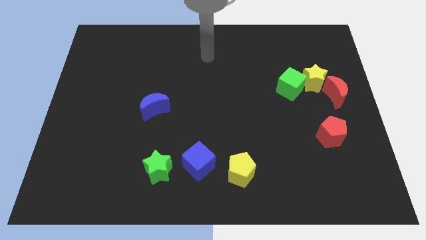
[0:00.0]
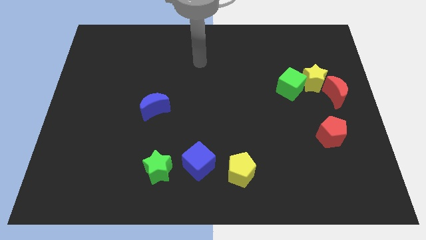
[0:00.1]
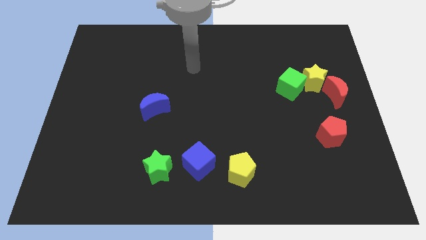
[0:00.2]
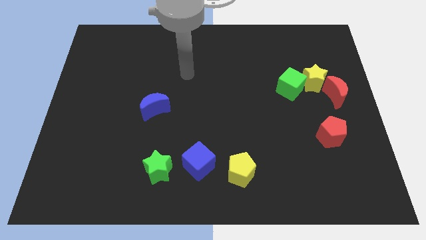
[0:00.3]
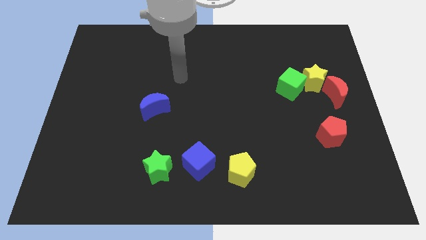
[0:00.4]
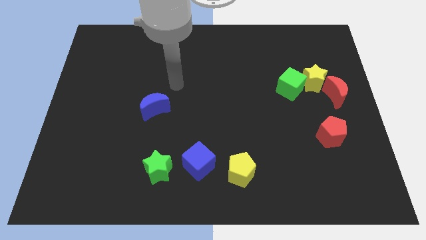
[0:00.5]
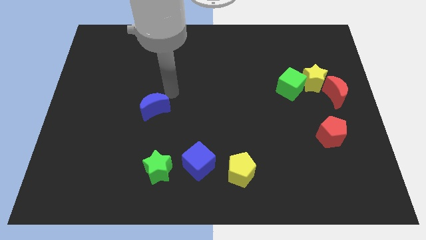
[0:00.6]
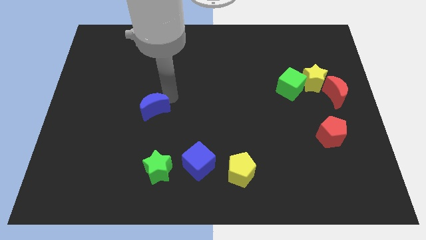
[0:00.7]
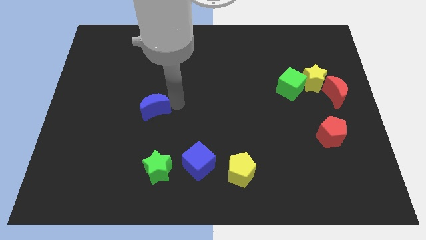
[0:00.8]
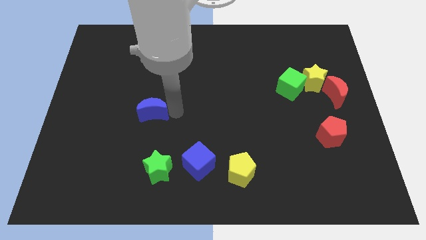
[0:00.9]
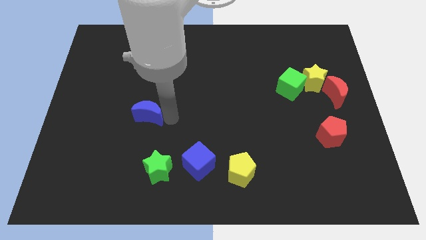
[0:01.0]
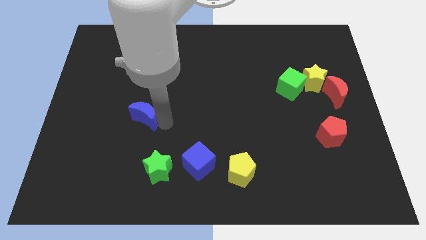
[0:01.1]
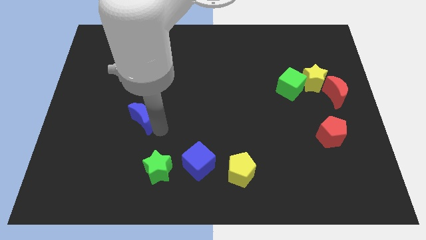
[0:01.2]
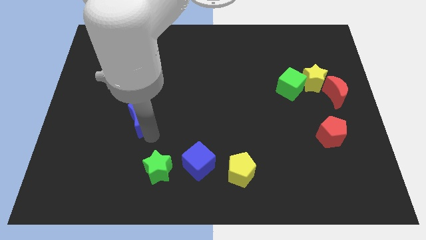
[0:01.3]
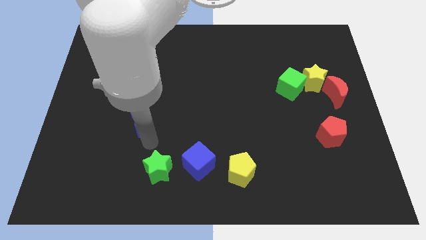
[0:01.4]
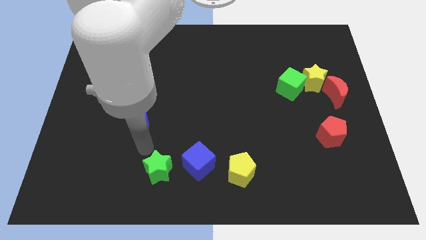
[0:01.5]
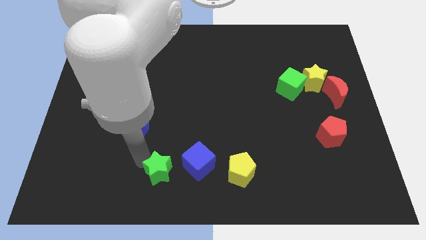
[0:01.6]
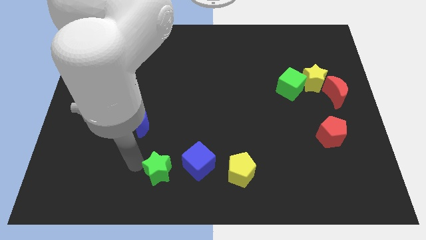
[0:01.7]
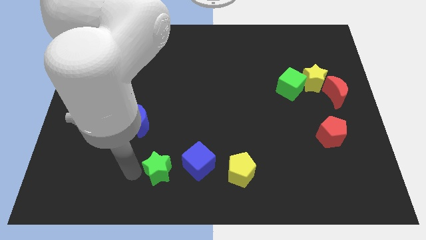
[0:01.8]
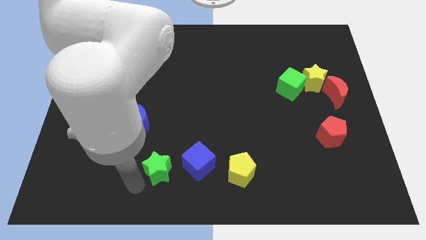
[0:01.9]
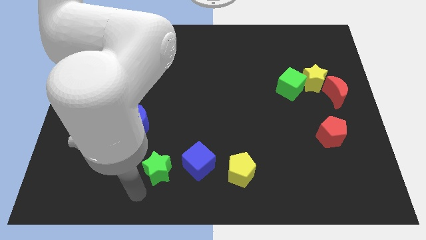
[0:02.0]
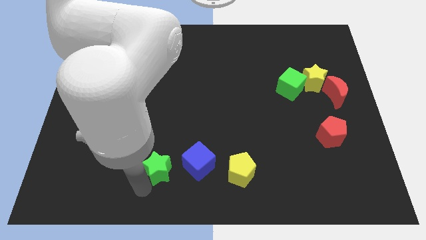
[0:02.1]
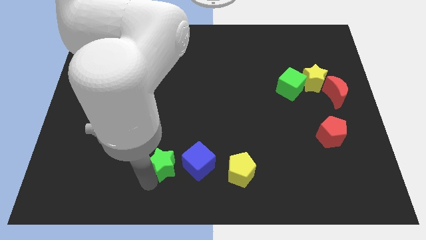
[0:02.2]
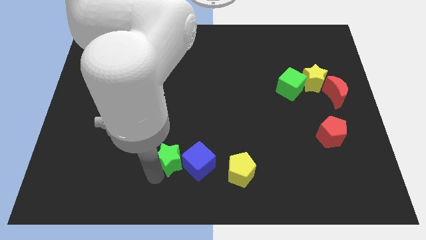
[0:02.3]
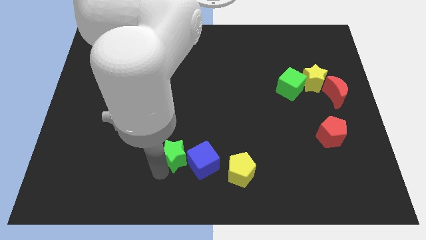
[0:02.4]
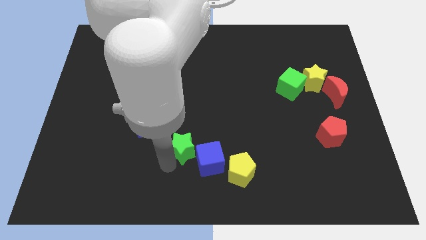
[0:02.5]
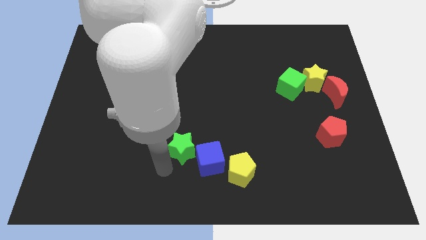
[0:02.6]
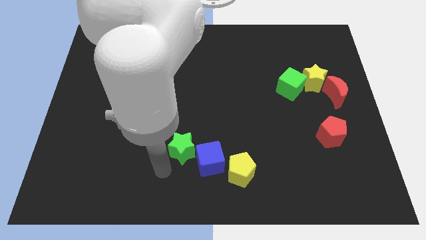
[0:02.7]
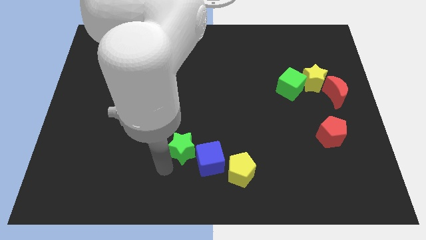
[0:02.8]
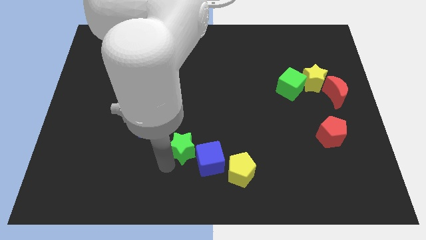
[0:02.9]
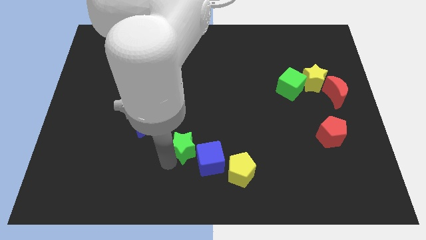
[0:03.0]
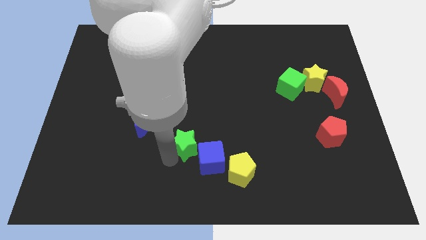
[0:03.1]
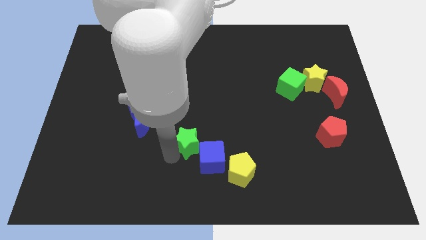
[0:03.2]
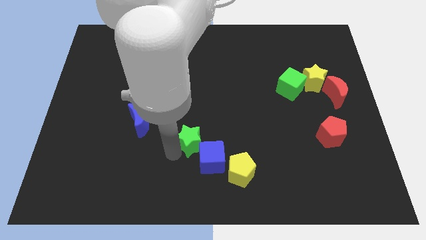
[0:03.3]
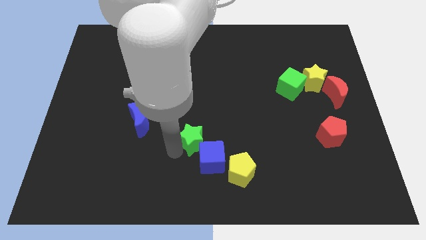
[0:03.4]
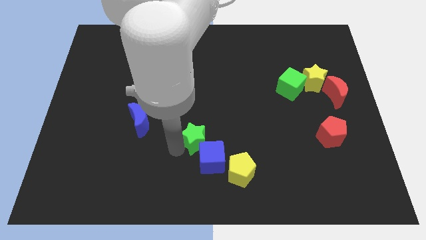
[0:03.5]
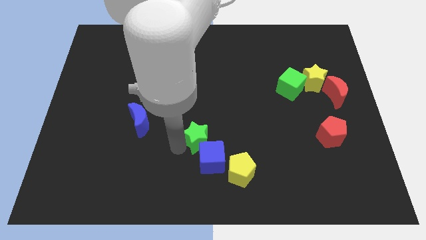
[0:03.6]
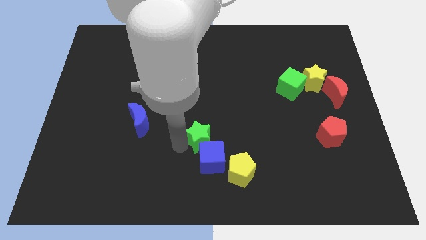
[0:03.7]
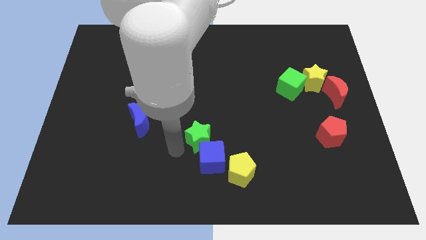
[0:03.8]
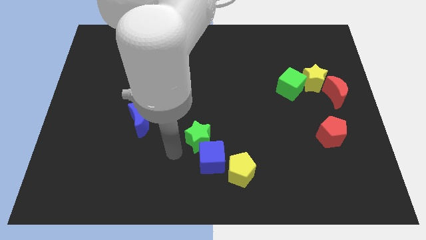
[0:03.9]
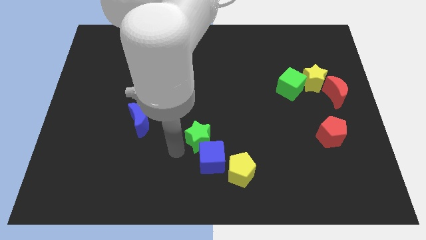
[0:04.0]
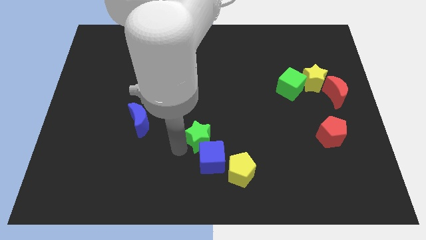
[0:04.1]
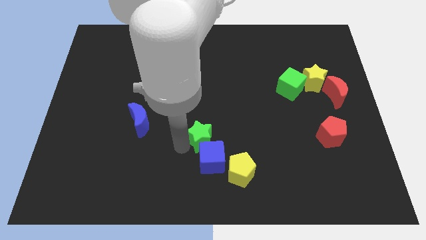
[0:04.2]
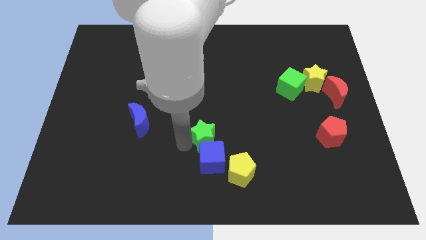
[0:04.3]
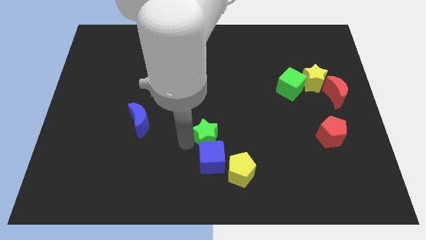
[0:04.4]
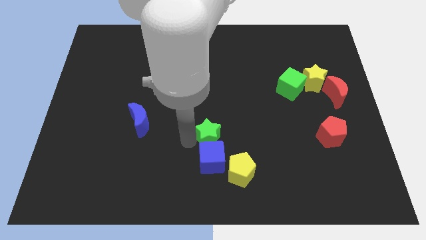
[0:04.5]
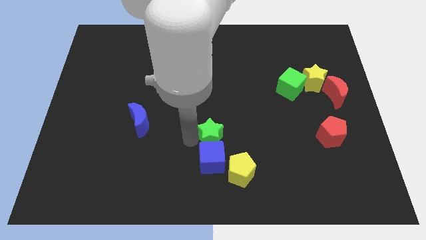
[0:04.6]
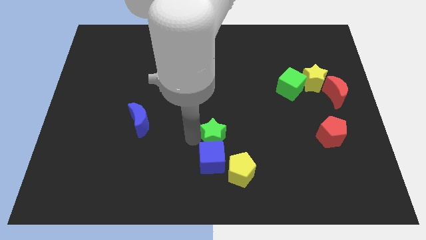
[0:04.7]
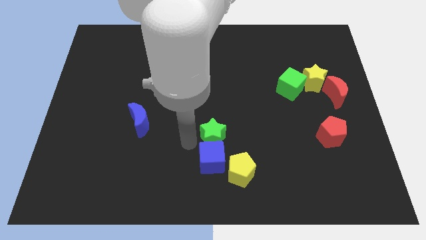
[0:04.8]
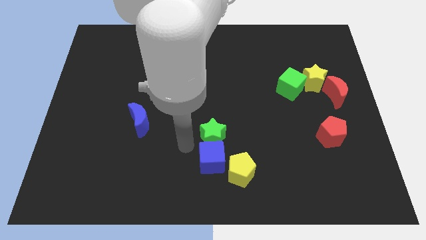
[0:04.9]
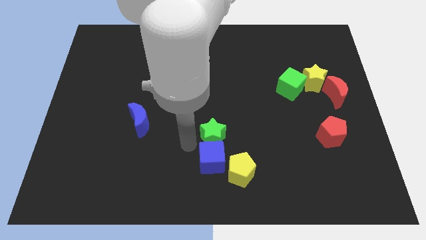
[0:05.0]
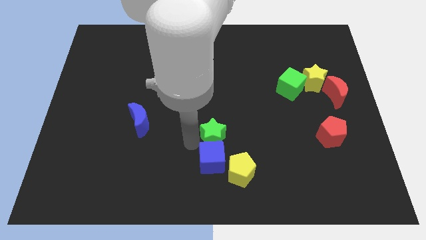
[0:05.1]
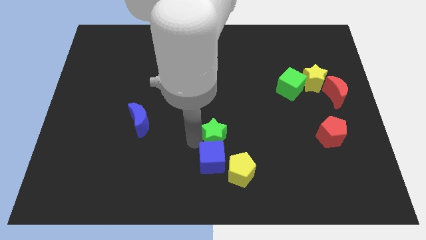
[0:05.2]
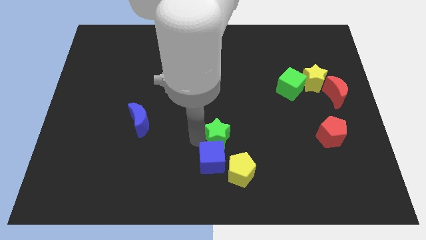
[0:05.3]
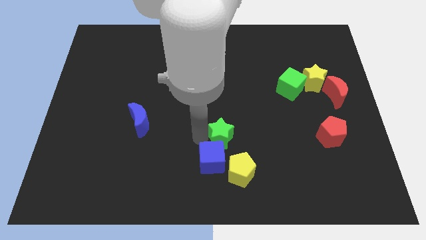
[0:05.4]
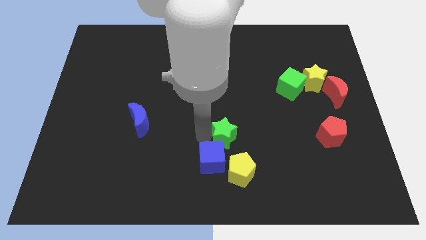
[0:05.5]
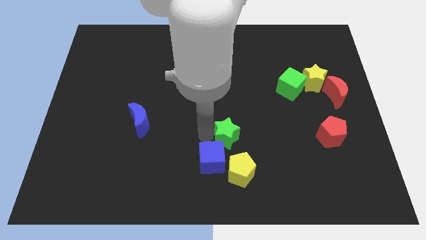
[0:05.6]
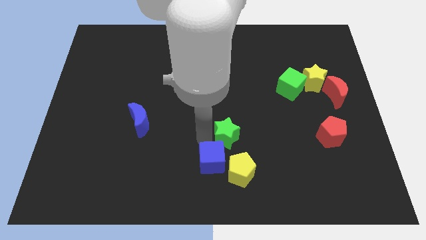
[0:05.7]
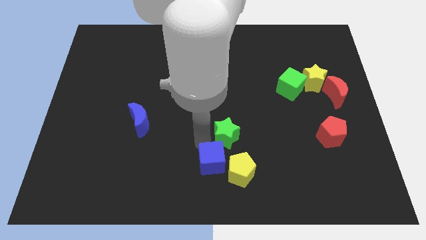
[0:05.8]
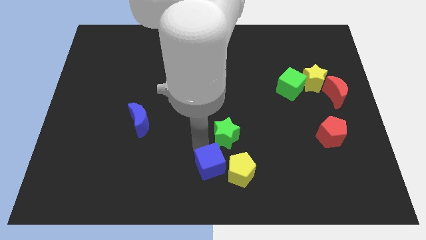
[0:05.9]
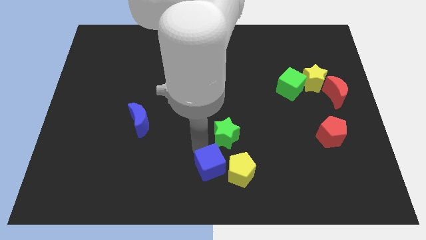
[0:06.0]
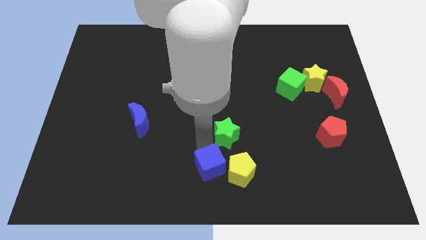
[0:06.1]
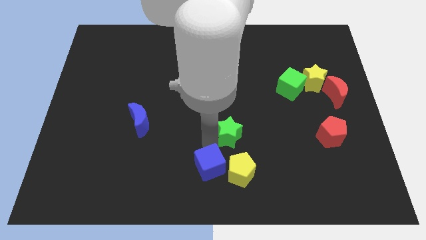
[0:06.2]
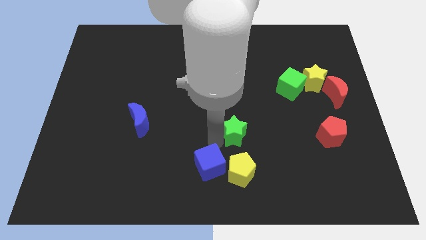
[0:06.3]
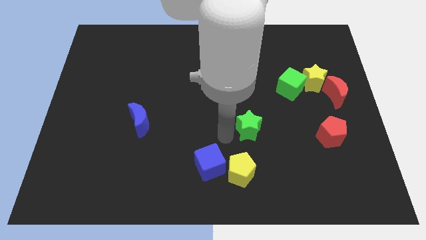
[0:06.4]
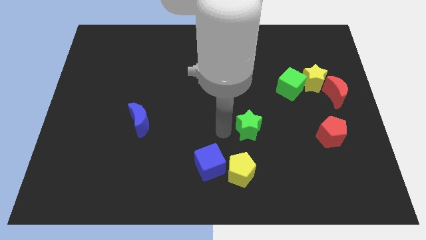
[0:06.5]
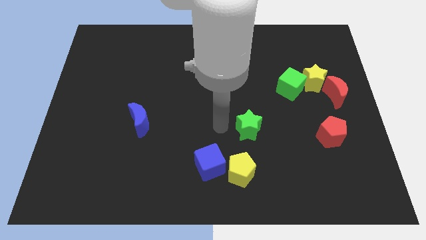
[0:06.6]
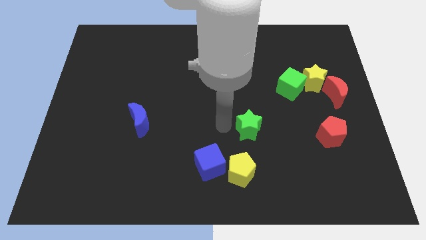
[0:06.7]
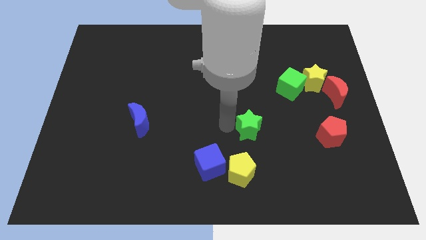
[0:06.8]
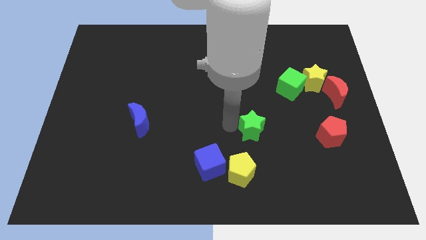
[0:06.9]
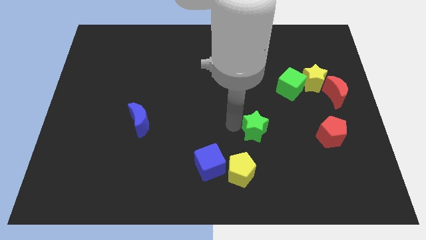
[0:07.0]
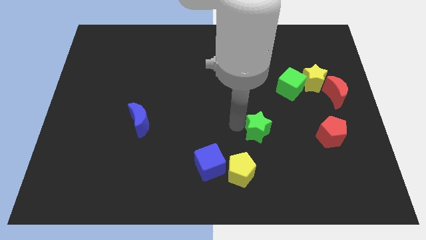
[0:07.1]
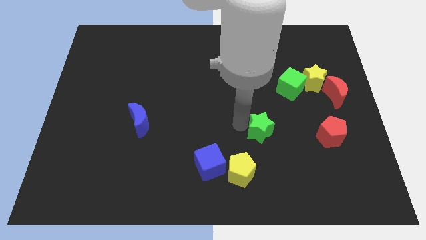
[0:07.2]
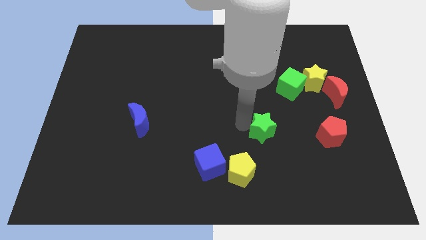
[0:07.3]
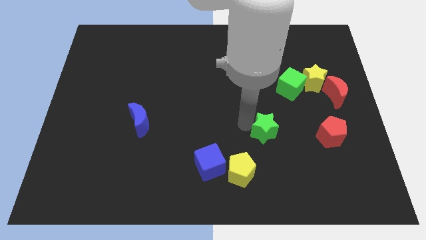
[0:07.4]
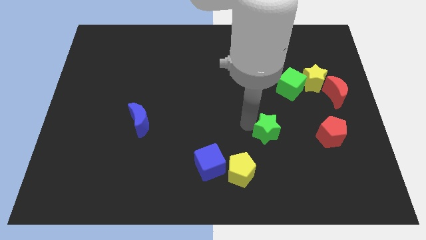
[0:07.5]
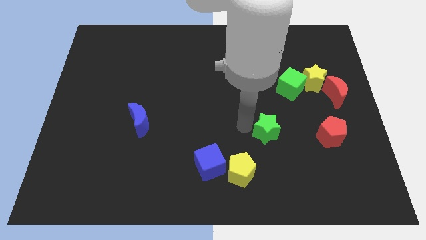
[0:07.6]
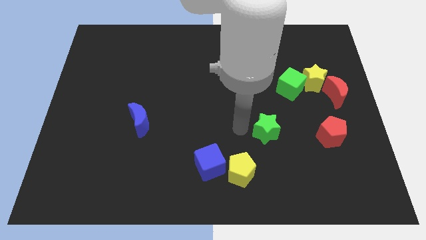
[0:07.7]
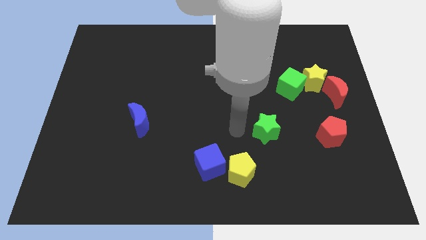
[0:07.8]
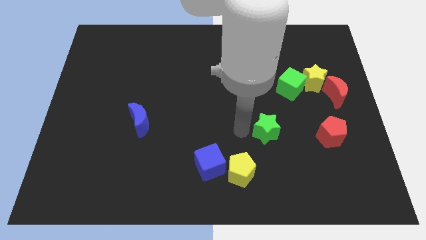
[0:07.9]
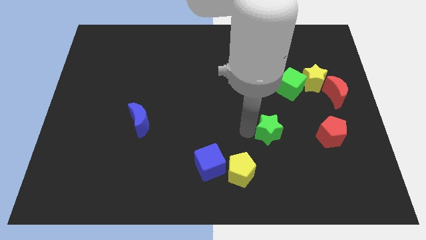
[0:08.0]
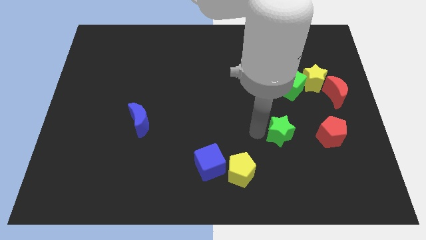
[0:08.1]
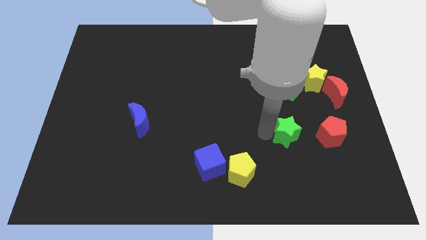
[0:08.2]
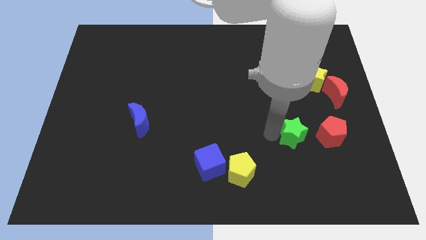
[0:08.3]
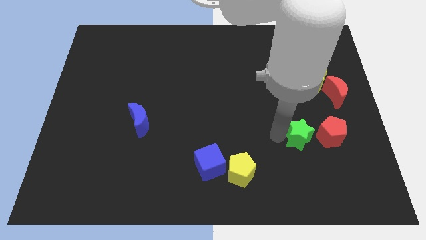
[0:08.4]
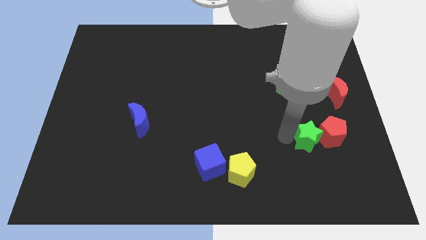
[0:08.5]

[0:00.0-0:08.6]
slide the green star next to the red pentagon
